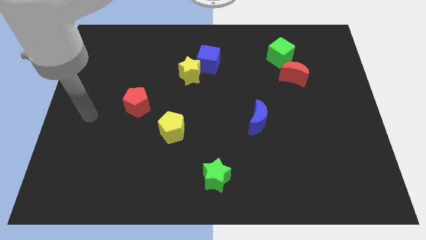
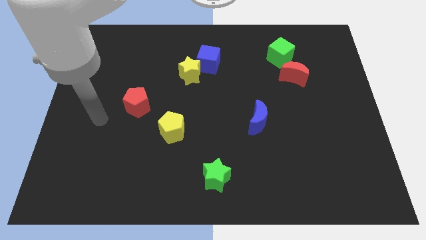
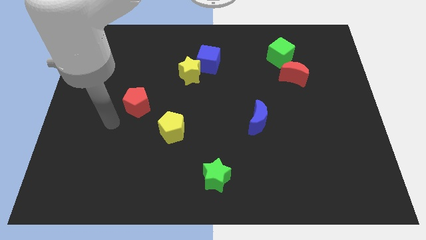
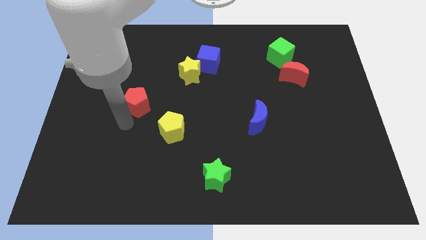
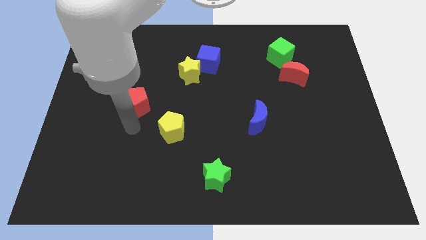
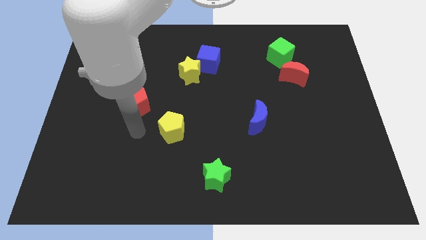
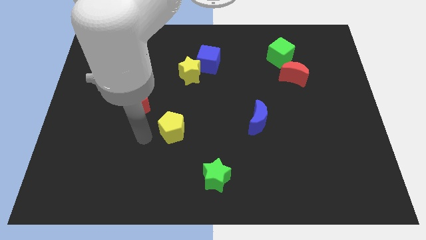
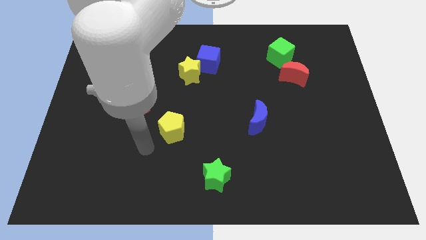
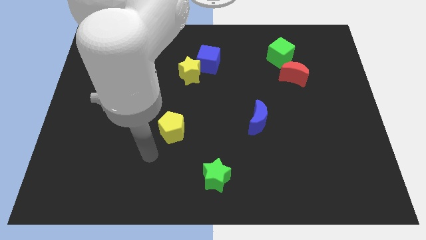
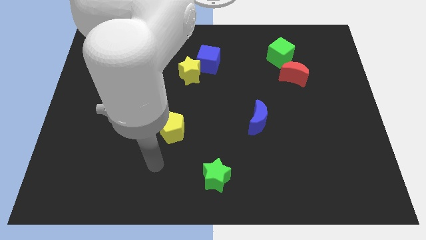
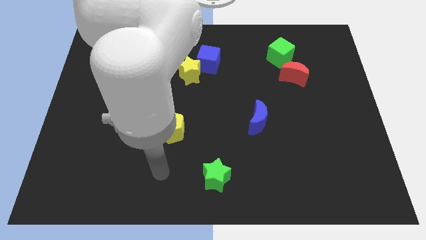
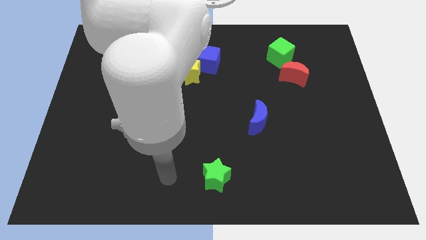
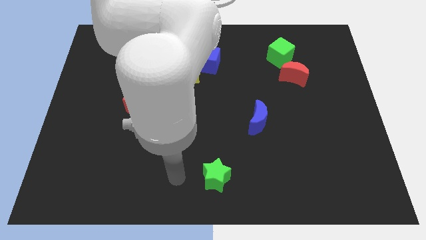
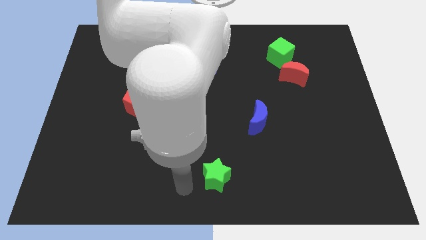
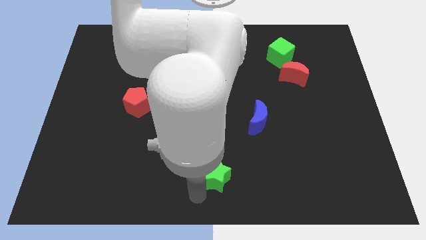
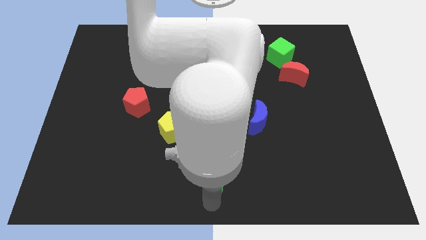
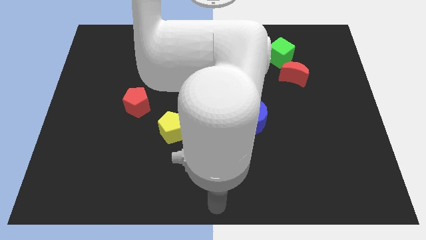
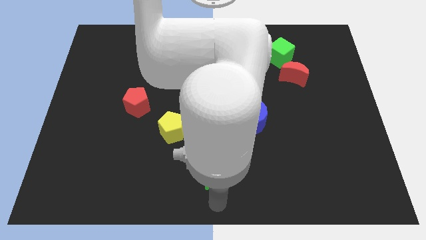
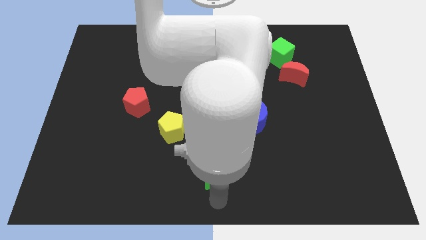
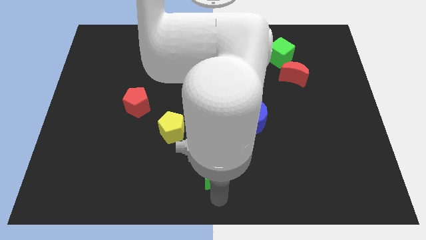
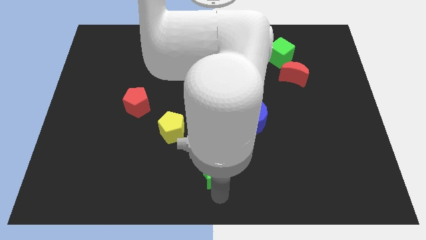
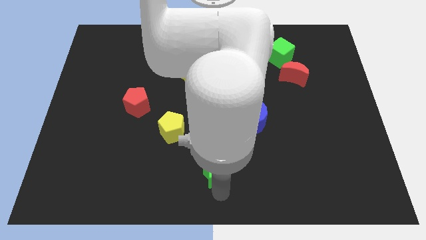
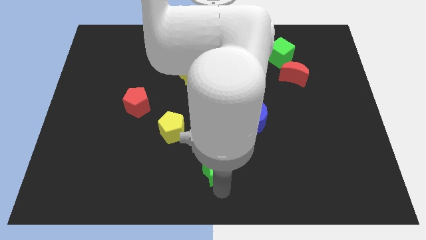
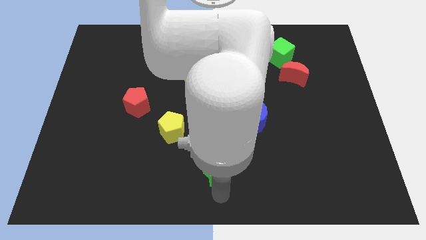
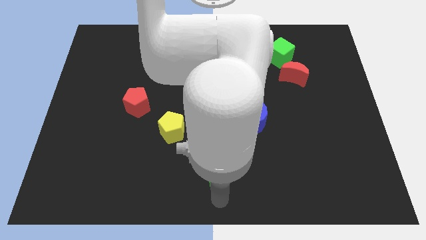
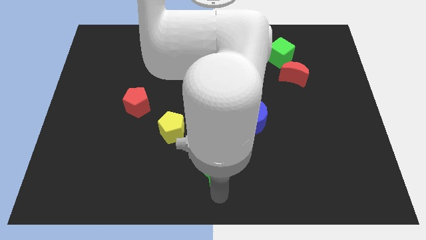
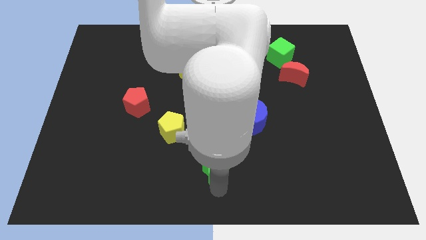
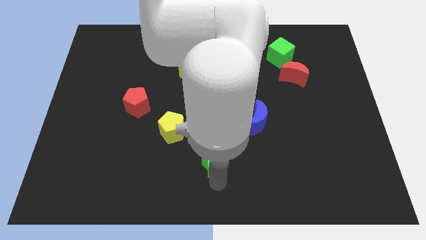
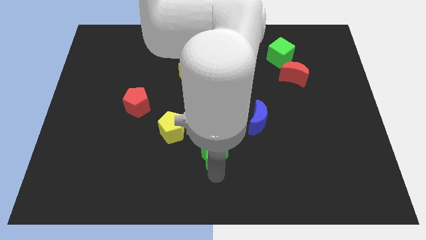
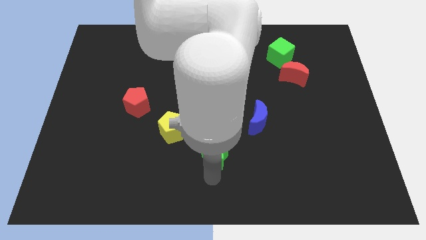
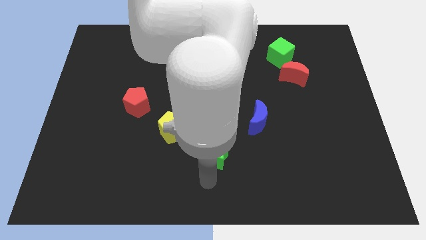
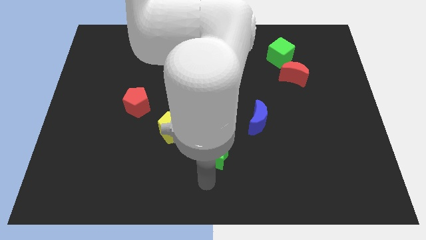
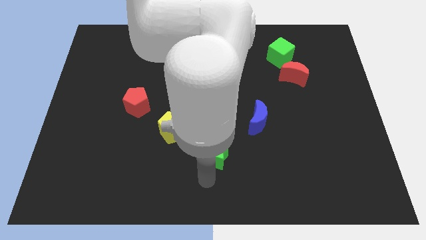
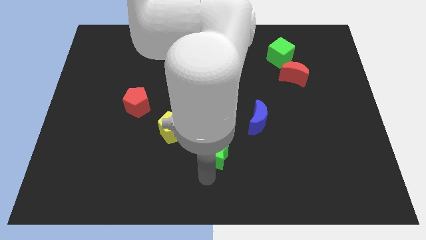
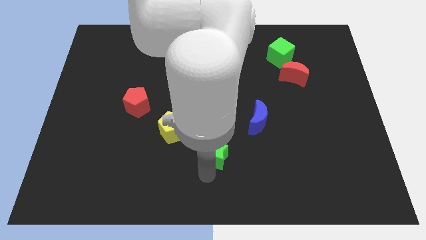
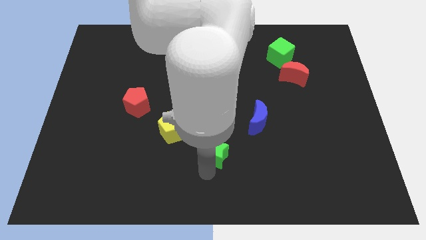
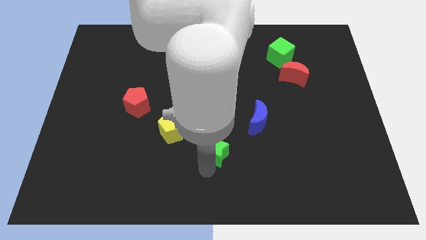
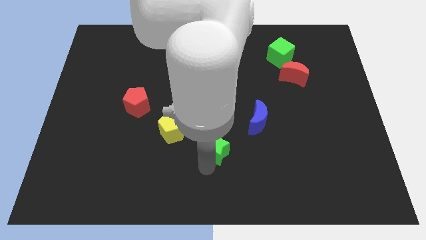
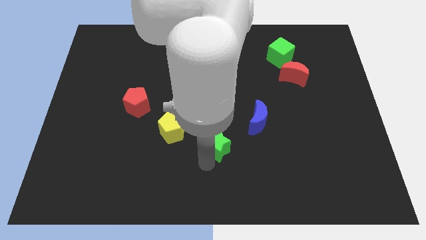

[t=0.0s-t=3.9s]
slightly push the green star up

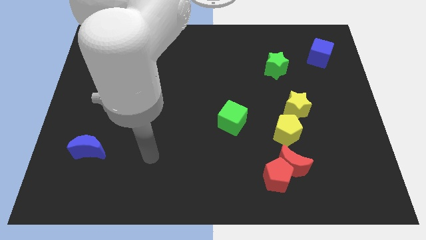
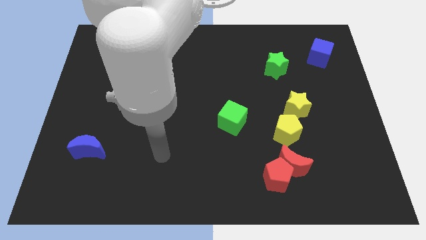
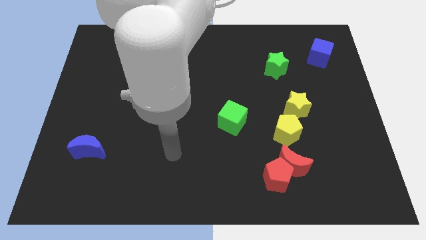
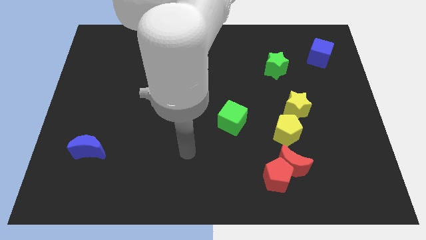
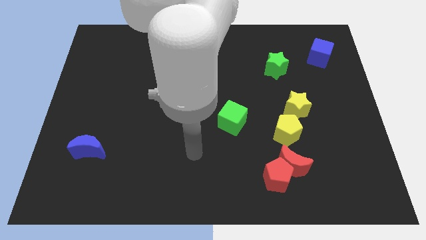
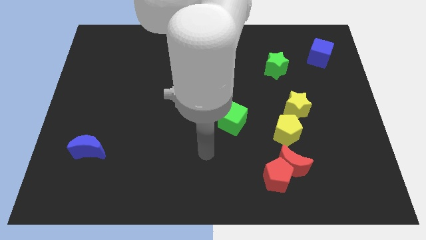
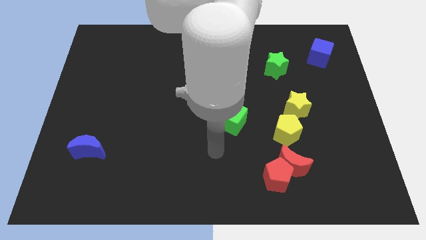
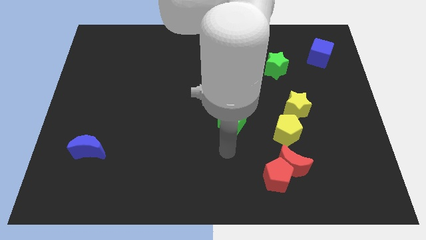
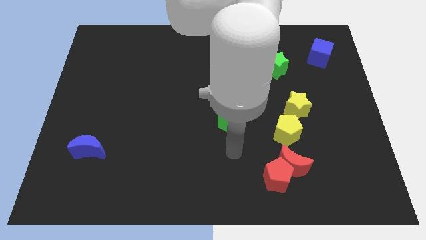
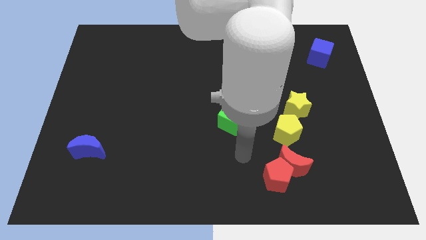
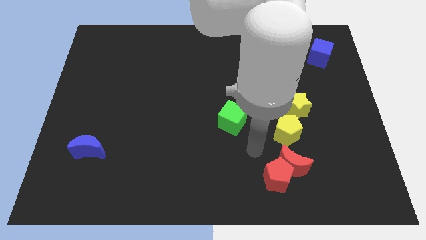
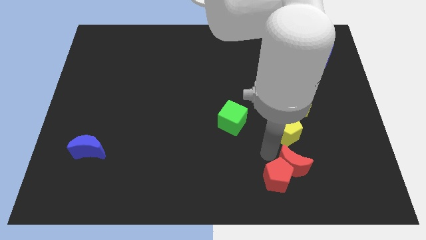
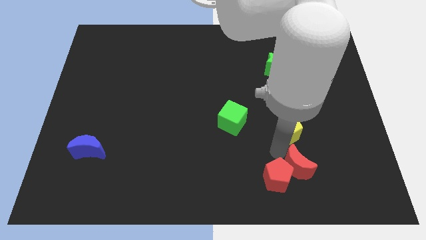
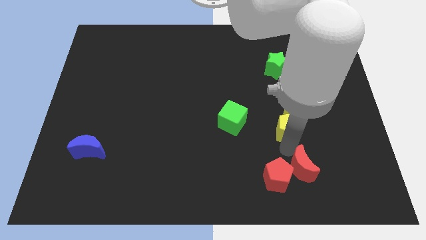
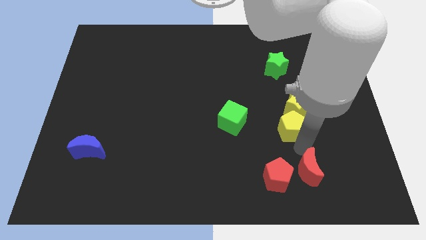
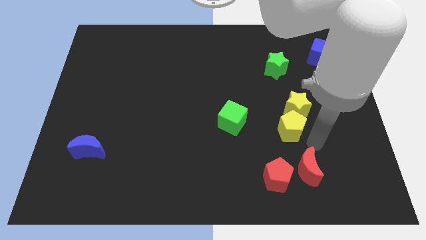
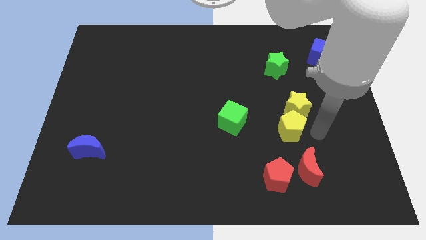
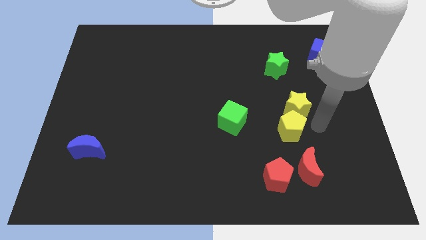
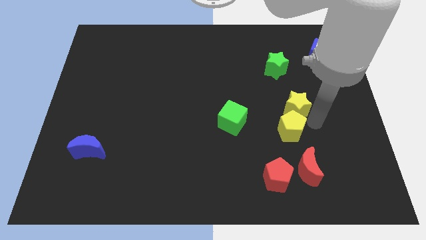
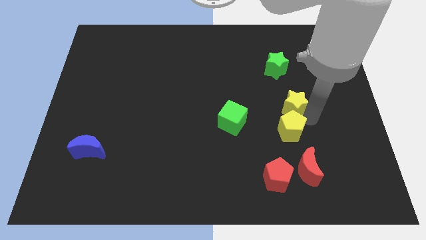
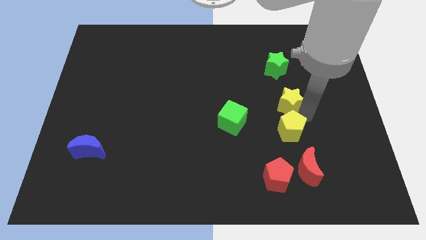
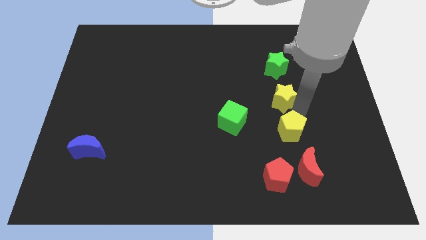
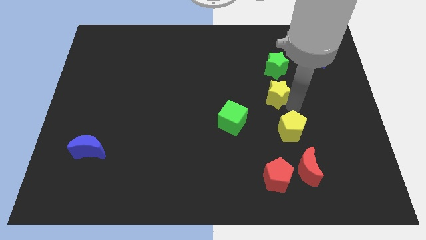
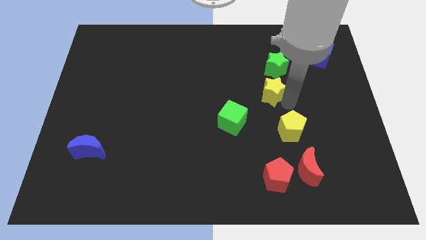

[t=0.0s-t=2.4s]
slightly push the yellow star upwards and then left

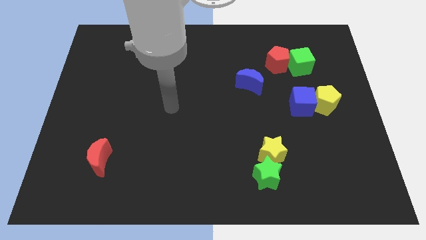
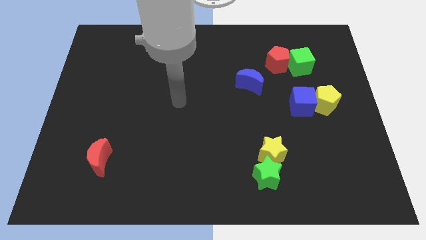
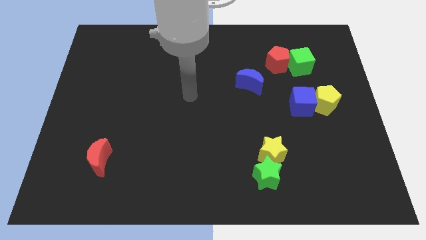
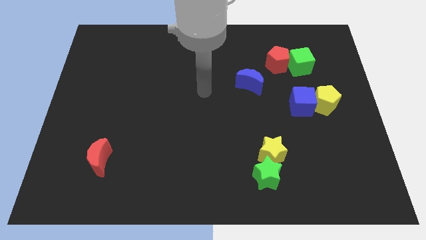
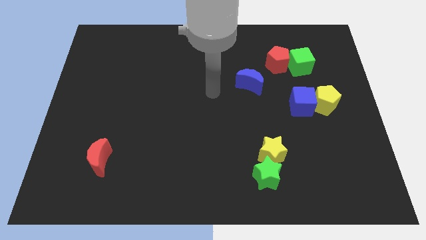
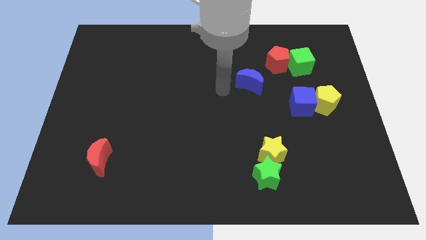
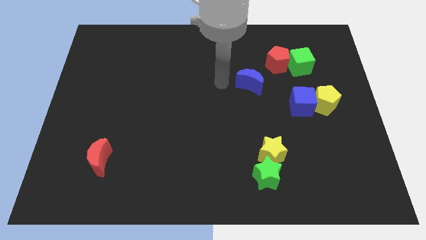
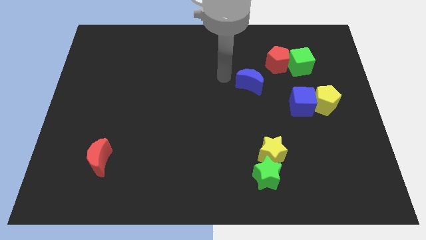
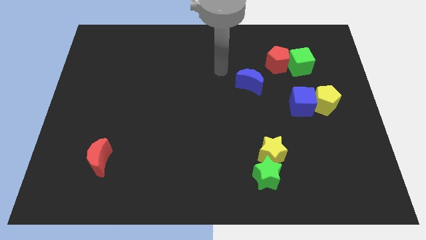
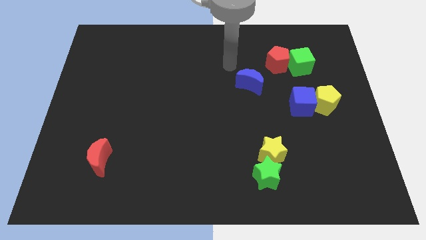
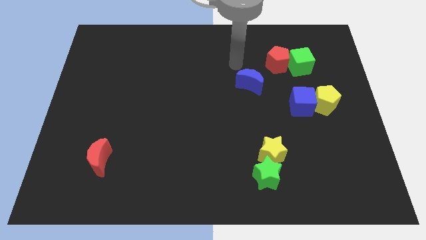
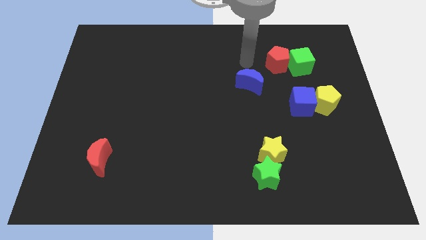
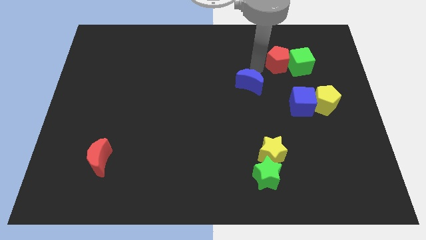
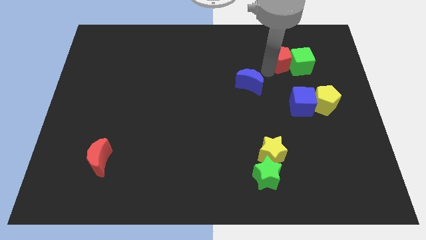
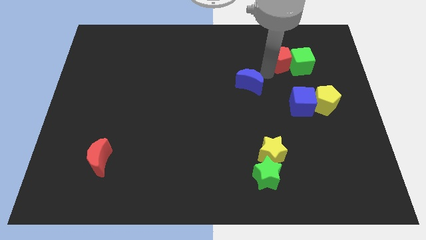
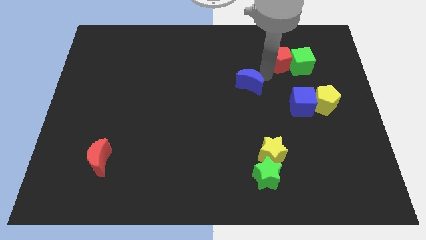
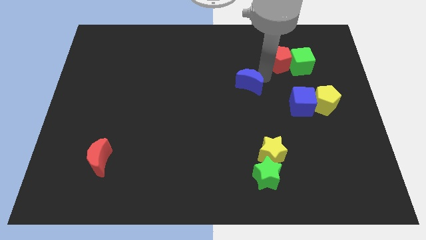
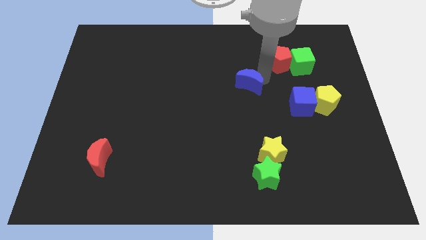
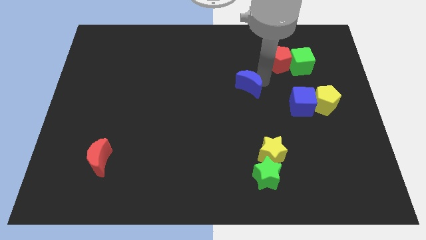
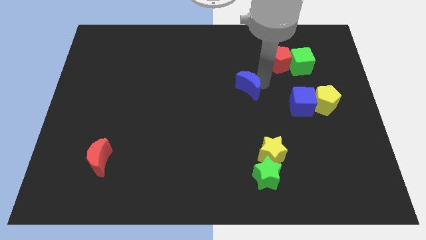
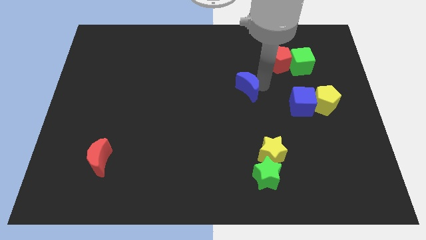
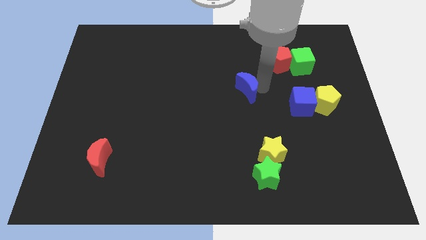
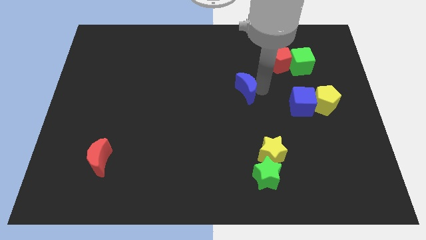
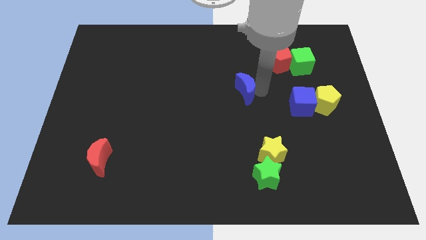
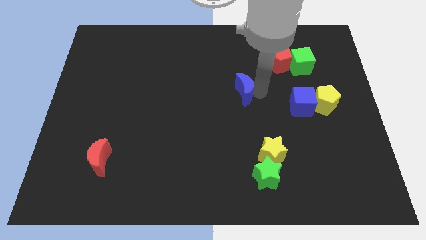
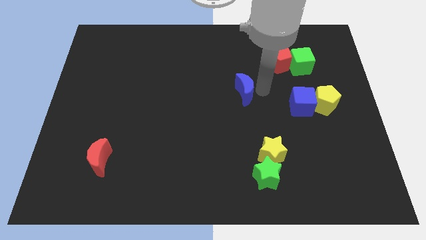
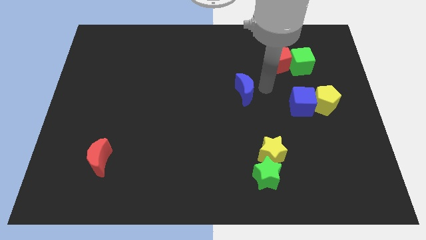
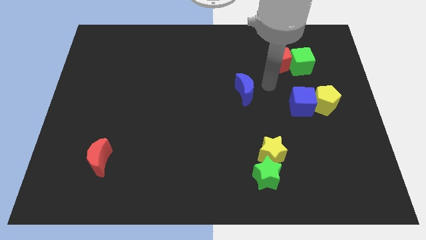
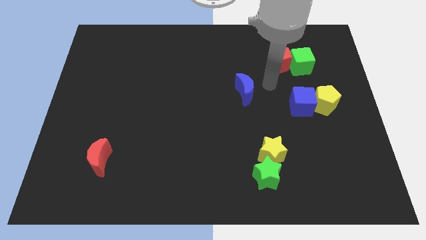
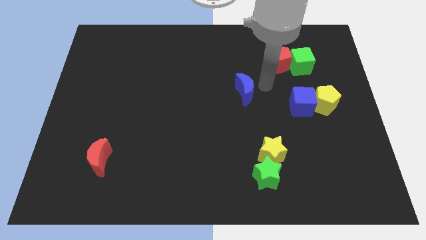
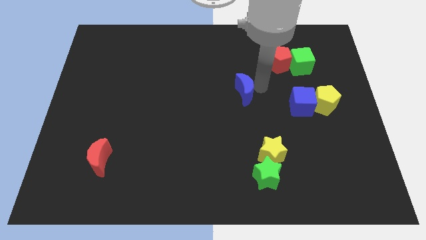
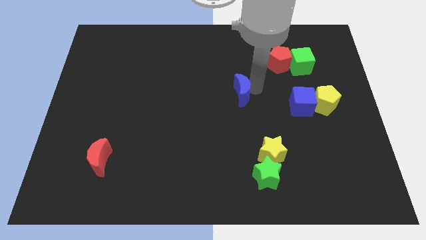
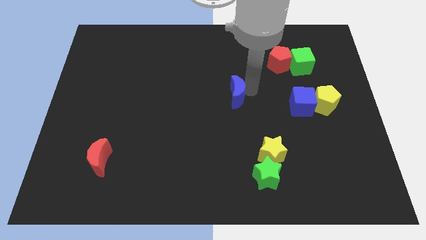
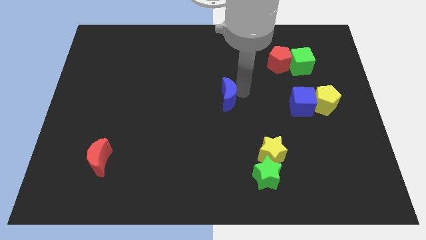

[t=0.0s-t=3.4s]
move the blue moon down and then to the left somewhat
